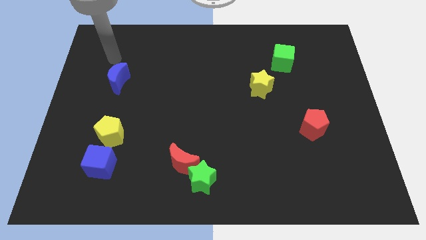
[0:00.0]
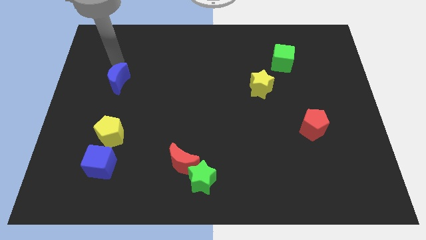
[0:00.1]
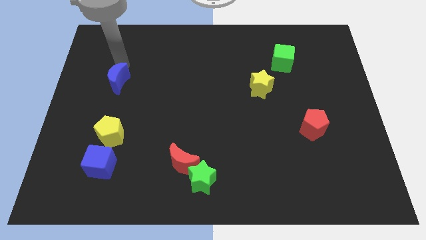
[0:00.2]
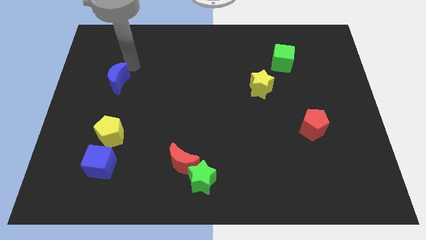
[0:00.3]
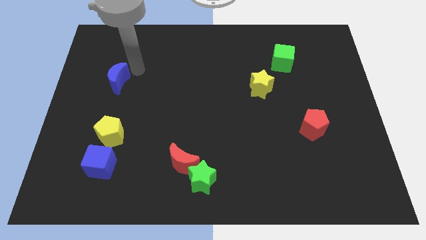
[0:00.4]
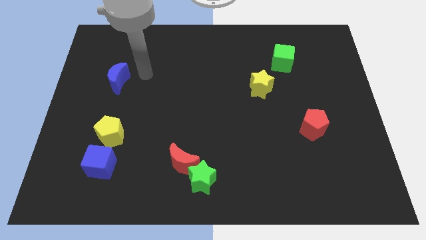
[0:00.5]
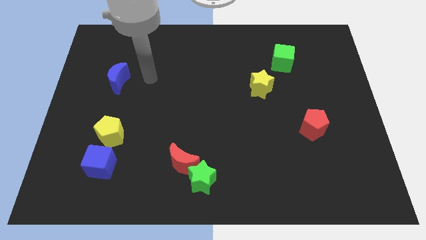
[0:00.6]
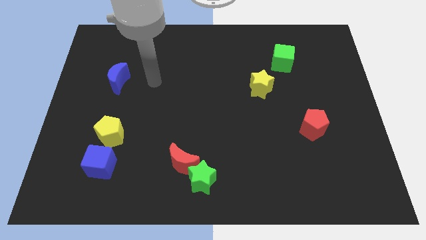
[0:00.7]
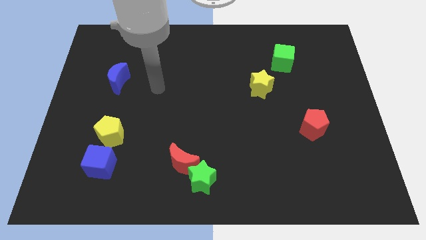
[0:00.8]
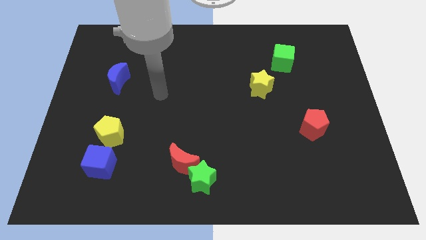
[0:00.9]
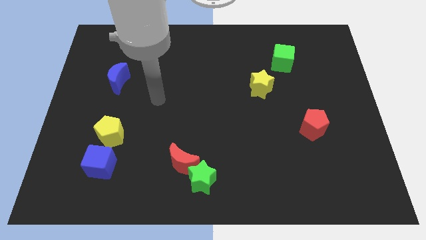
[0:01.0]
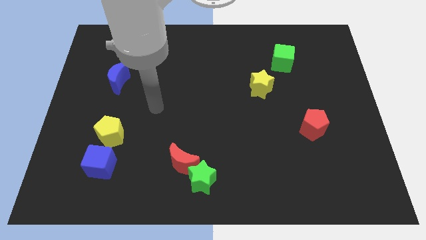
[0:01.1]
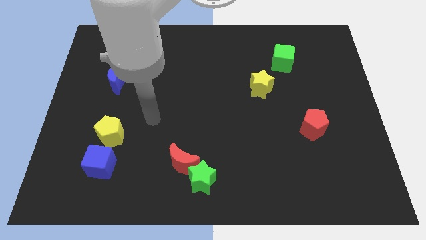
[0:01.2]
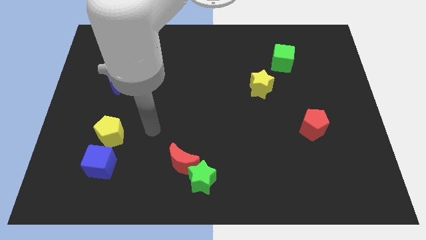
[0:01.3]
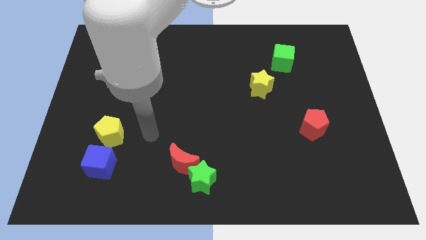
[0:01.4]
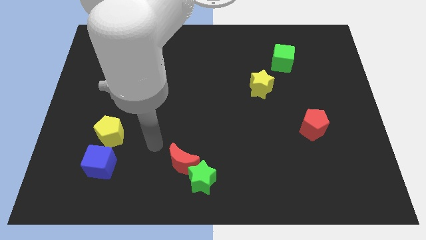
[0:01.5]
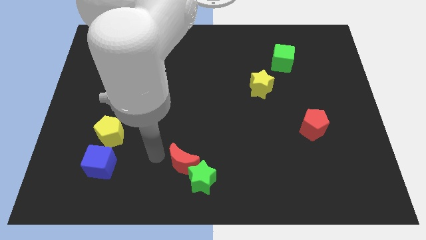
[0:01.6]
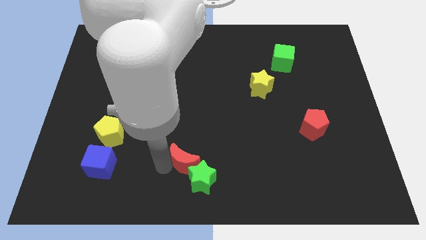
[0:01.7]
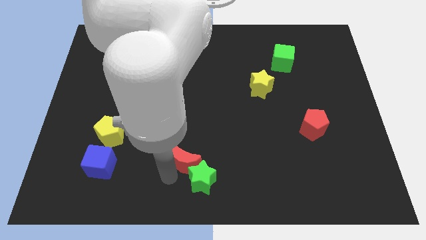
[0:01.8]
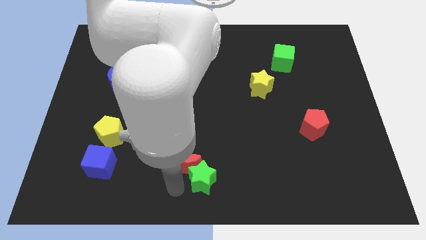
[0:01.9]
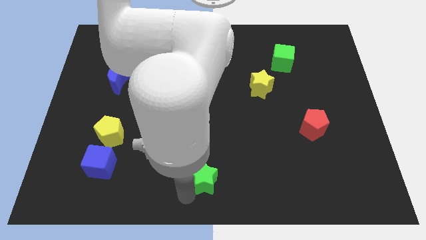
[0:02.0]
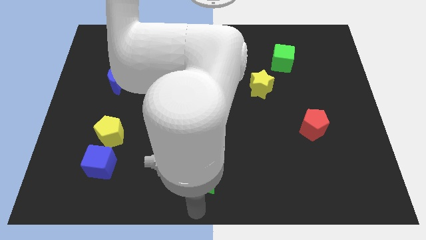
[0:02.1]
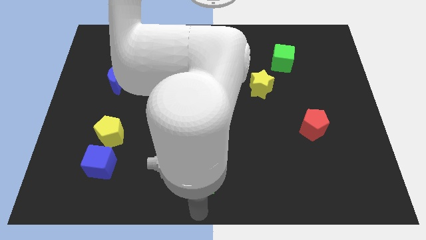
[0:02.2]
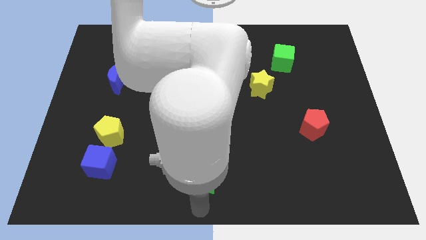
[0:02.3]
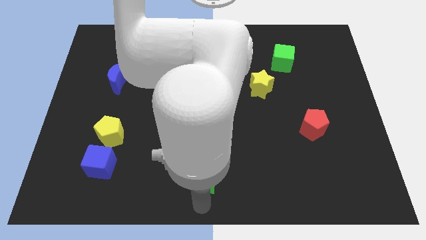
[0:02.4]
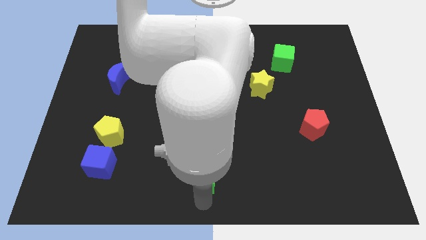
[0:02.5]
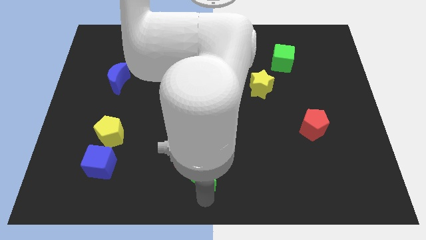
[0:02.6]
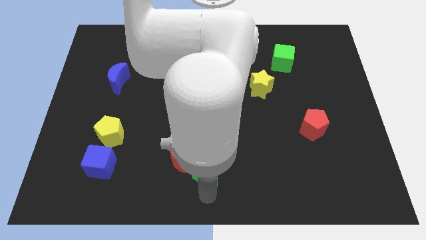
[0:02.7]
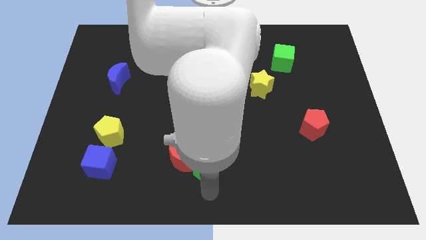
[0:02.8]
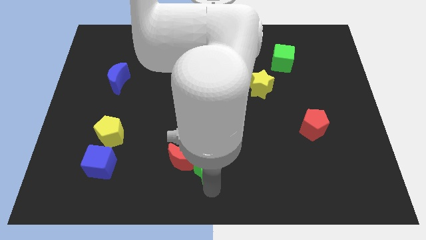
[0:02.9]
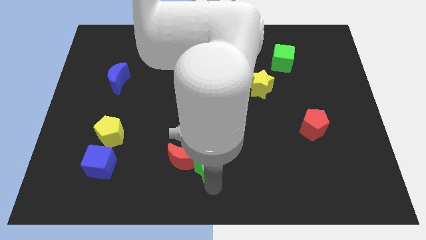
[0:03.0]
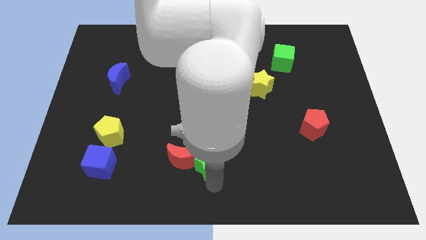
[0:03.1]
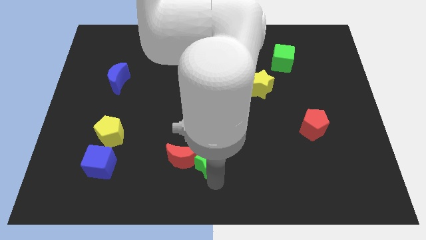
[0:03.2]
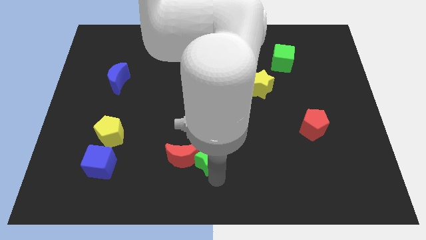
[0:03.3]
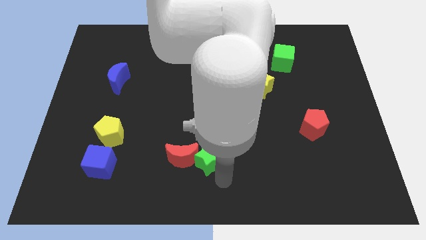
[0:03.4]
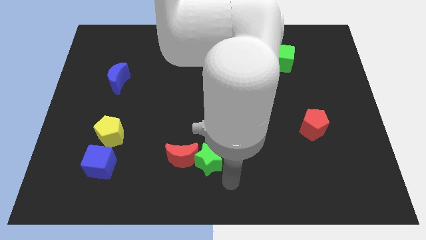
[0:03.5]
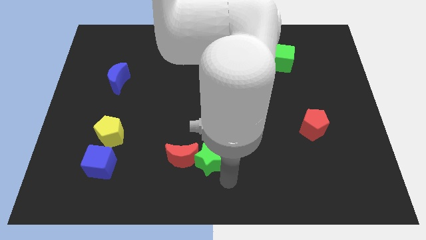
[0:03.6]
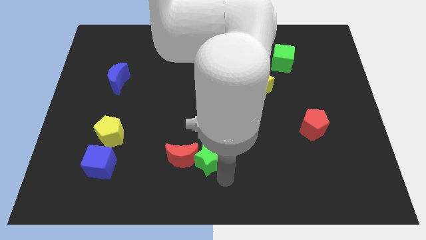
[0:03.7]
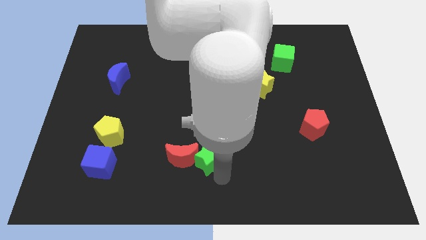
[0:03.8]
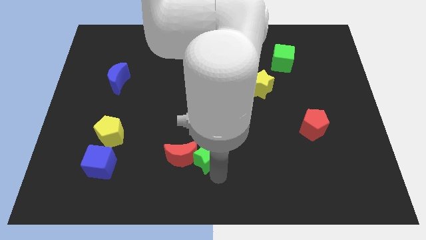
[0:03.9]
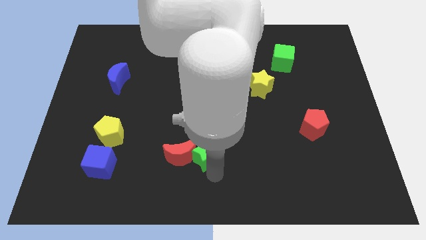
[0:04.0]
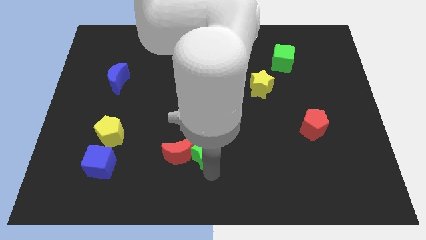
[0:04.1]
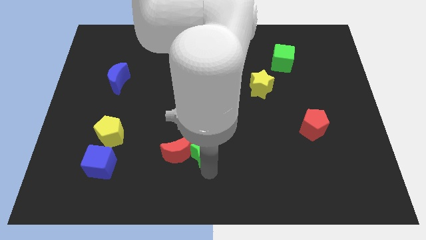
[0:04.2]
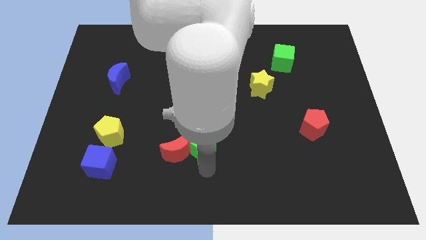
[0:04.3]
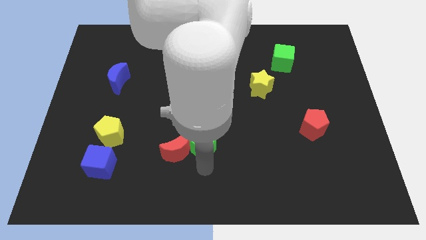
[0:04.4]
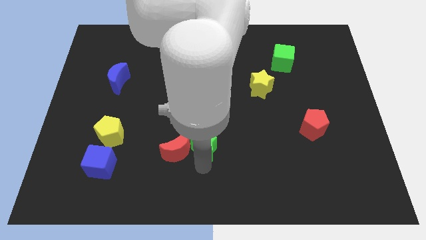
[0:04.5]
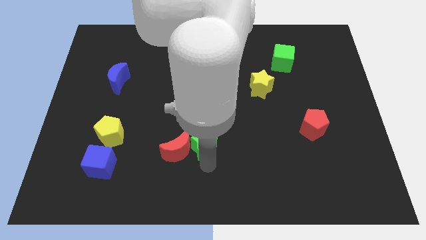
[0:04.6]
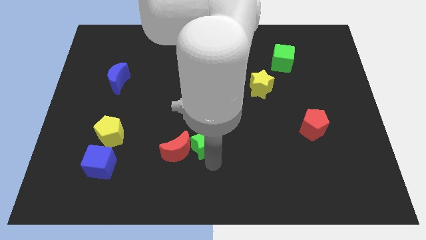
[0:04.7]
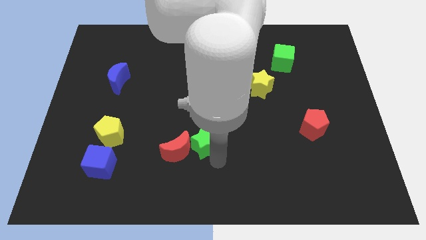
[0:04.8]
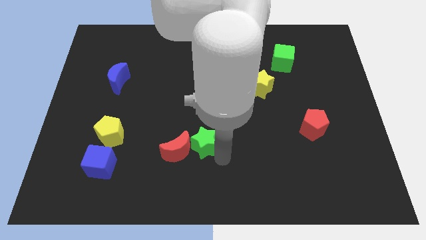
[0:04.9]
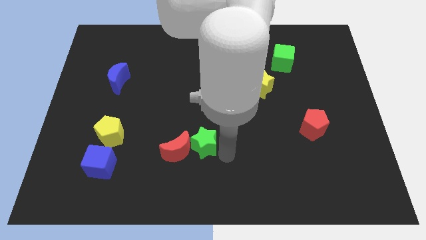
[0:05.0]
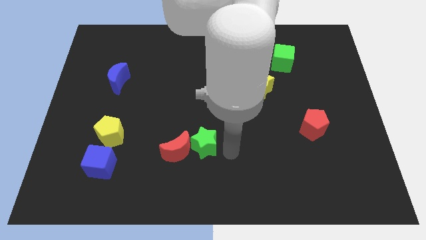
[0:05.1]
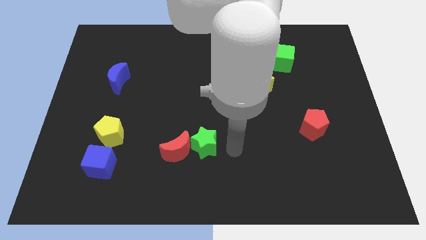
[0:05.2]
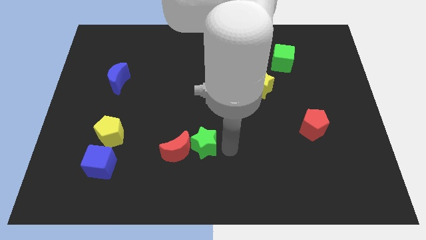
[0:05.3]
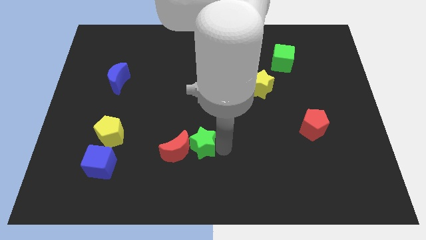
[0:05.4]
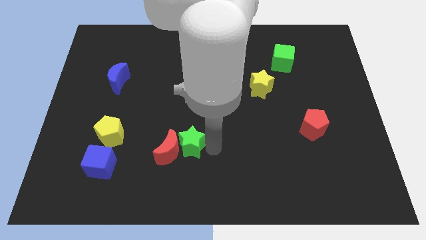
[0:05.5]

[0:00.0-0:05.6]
push the green star a little upwards and to the left diagonally

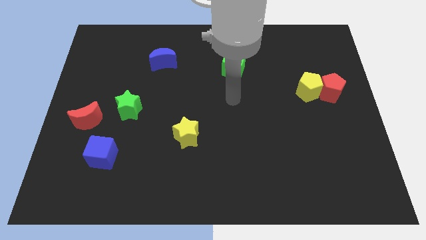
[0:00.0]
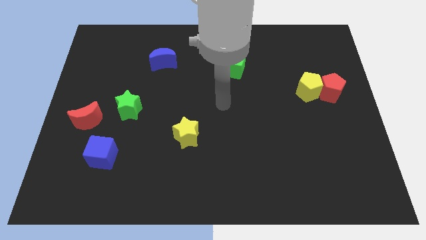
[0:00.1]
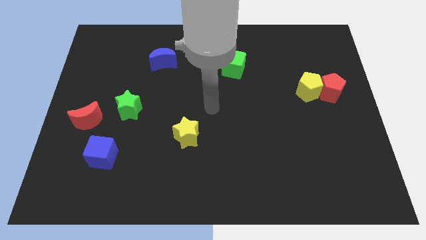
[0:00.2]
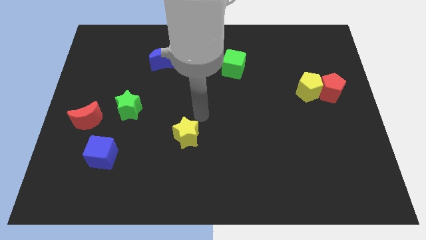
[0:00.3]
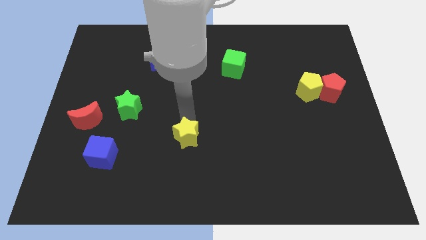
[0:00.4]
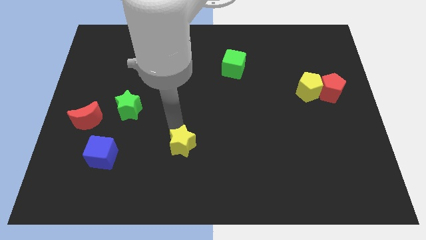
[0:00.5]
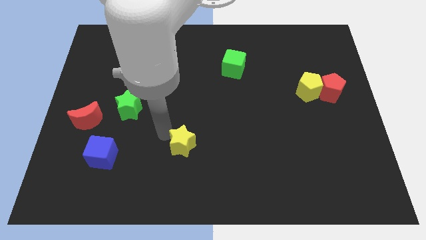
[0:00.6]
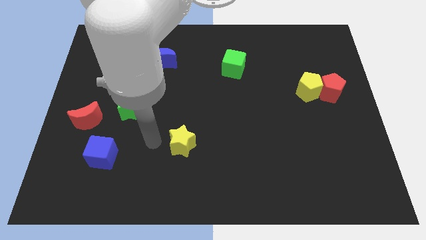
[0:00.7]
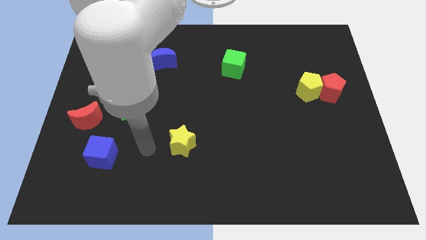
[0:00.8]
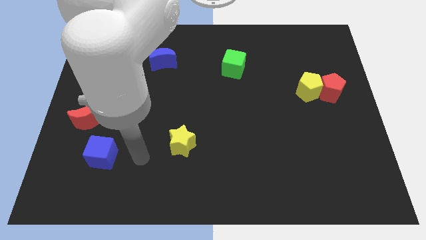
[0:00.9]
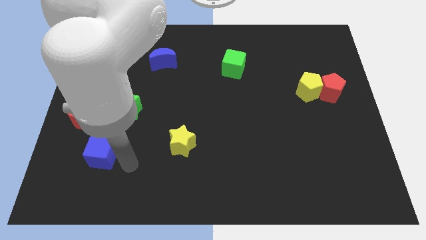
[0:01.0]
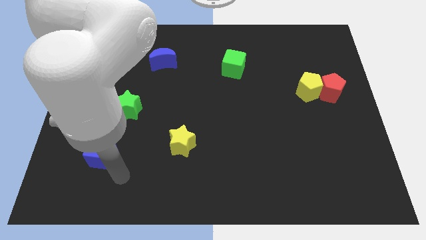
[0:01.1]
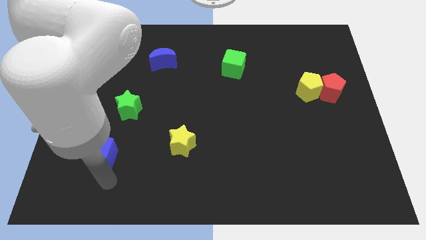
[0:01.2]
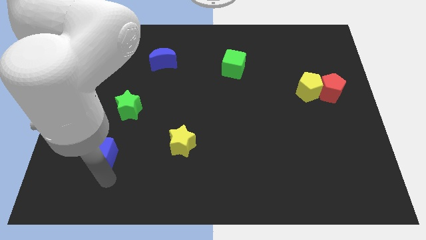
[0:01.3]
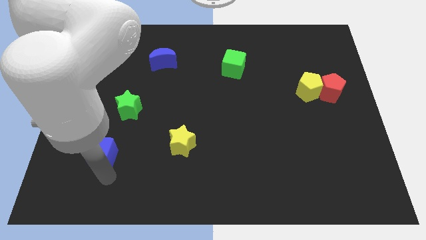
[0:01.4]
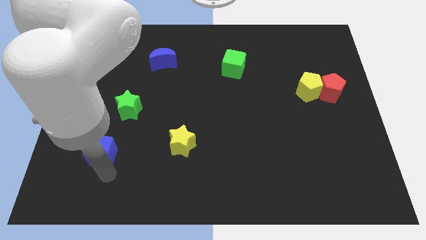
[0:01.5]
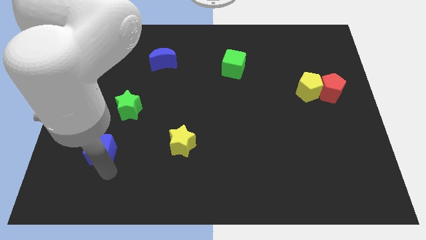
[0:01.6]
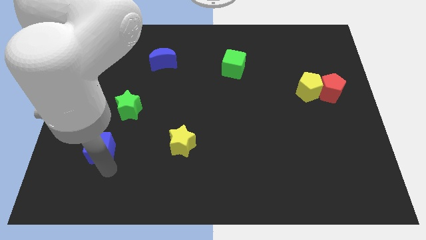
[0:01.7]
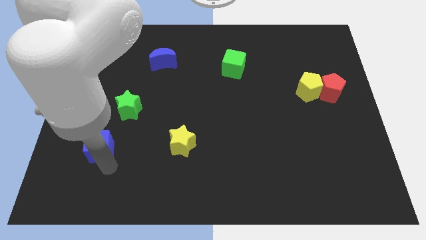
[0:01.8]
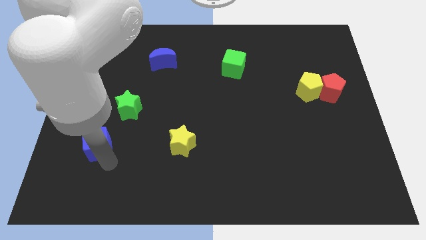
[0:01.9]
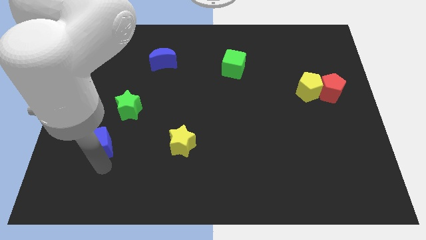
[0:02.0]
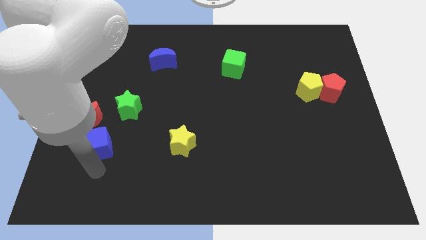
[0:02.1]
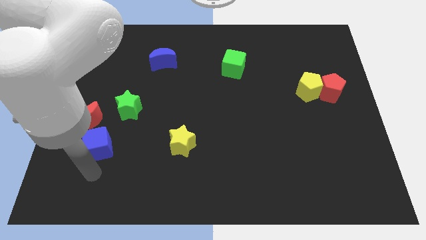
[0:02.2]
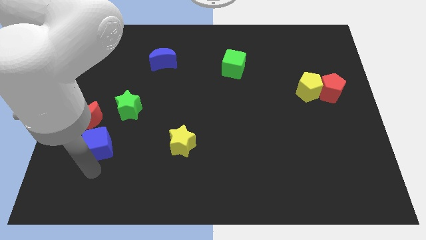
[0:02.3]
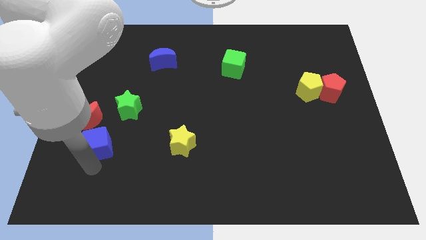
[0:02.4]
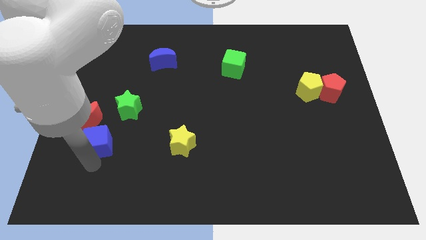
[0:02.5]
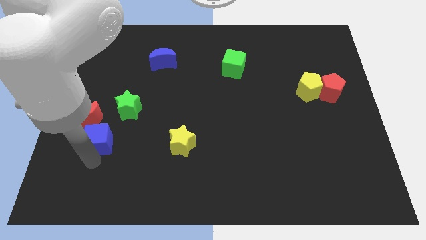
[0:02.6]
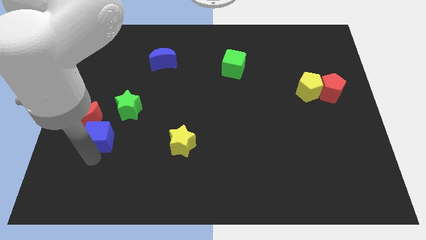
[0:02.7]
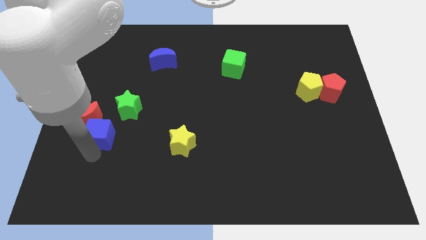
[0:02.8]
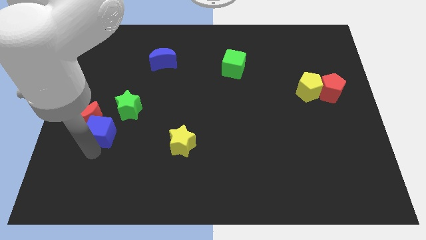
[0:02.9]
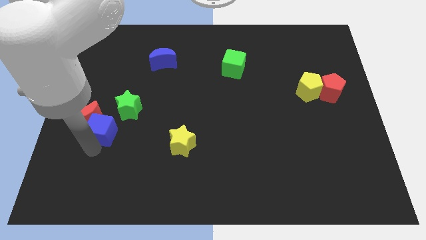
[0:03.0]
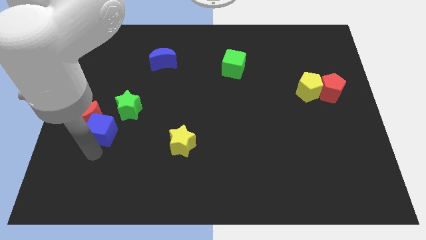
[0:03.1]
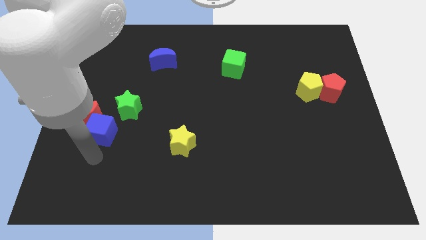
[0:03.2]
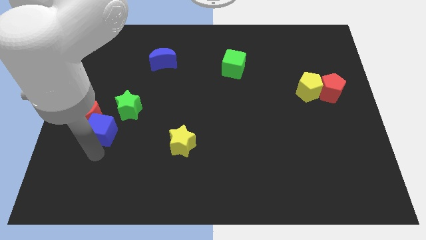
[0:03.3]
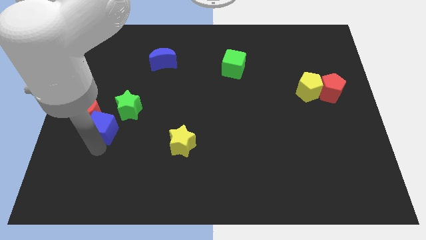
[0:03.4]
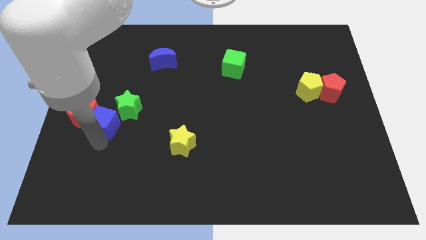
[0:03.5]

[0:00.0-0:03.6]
slightly push the blue cube up
